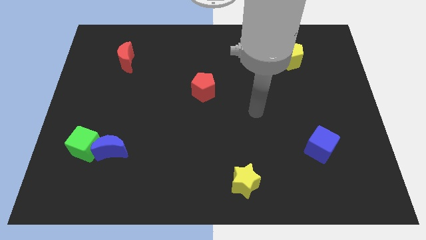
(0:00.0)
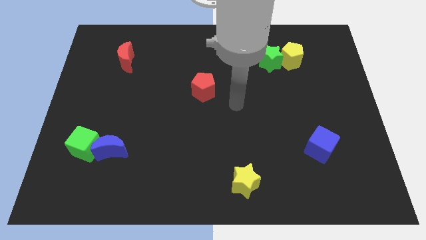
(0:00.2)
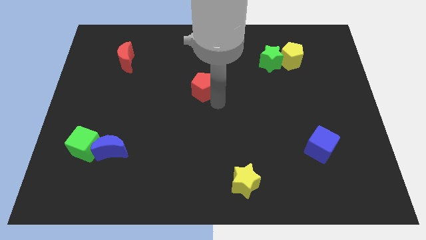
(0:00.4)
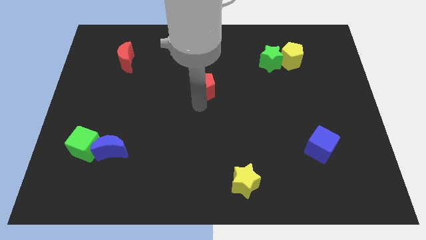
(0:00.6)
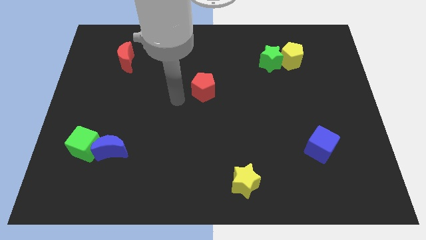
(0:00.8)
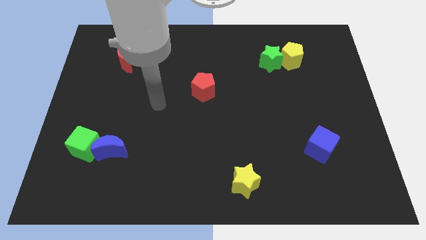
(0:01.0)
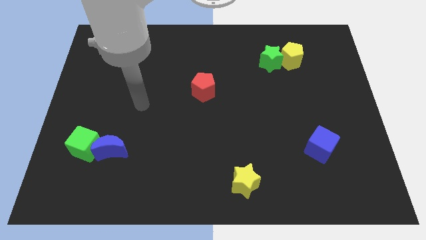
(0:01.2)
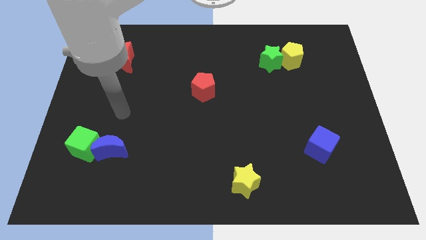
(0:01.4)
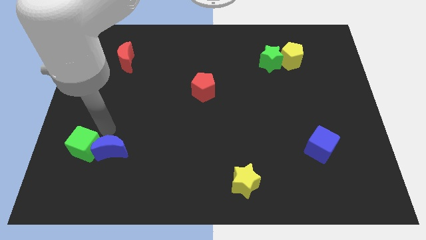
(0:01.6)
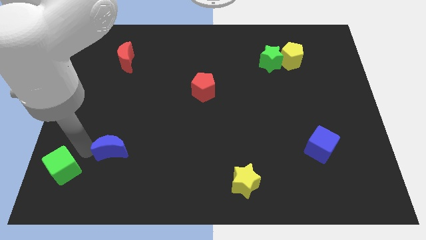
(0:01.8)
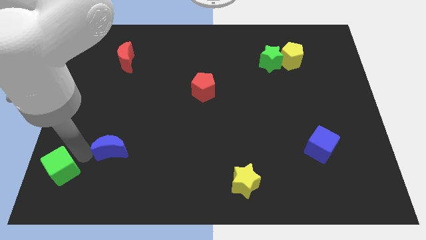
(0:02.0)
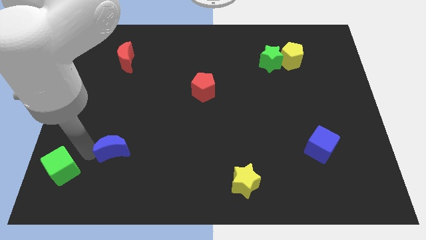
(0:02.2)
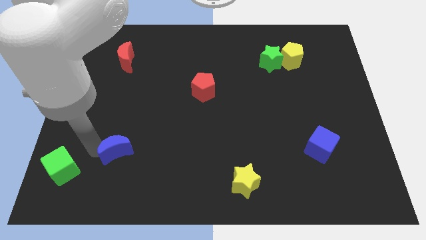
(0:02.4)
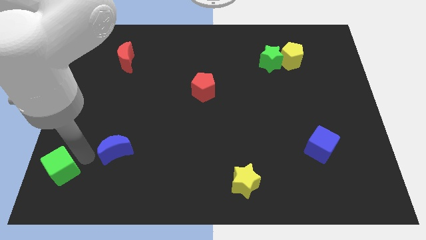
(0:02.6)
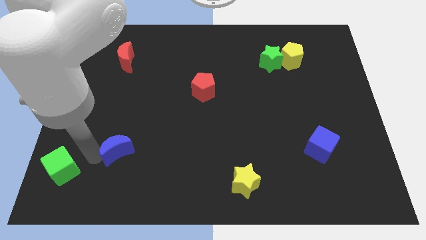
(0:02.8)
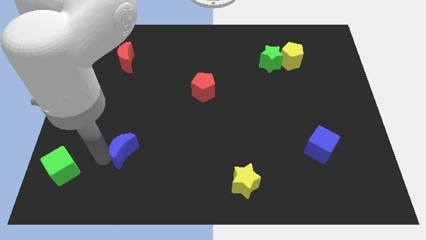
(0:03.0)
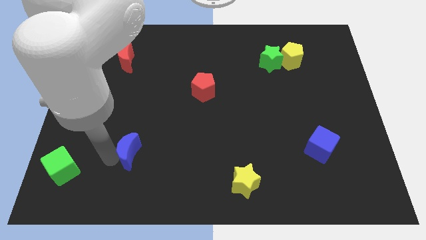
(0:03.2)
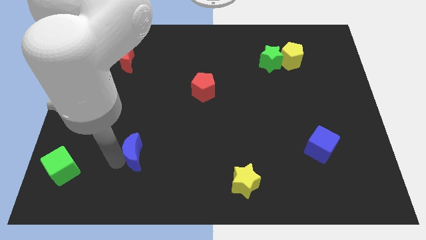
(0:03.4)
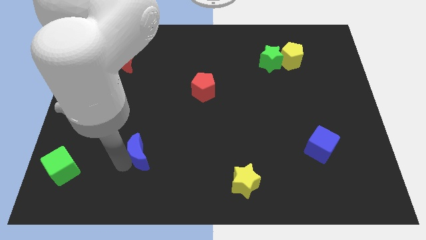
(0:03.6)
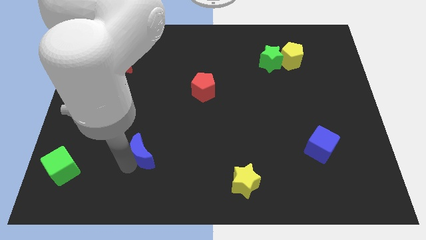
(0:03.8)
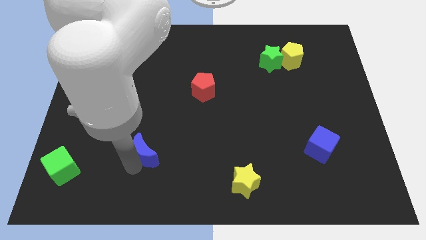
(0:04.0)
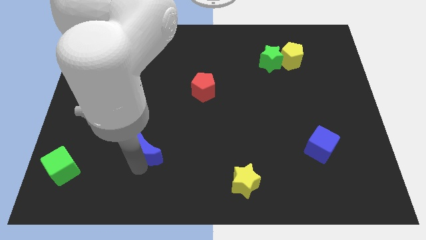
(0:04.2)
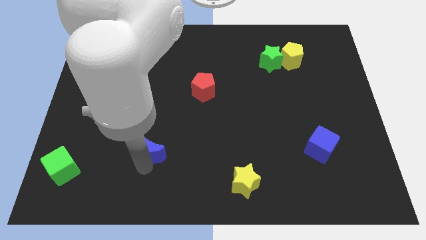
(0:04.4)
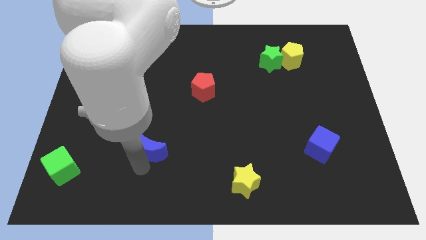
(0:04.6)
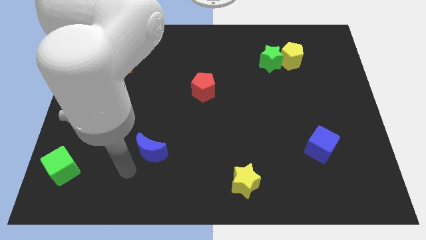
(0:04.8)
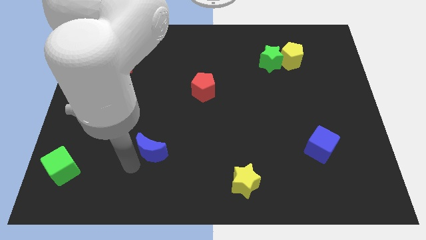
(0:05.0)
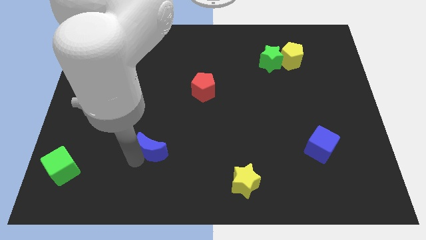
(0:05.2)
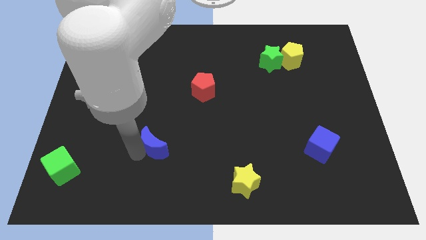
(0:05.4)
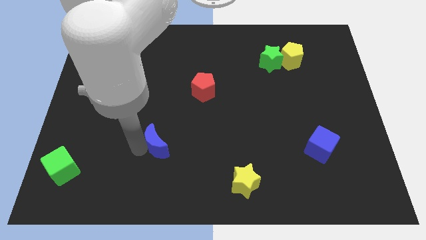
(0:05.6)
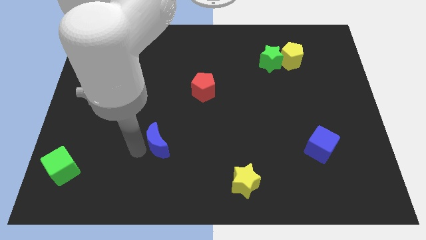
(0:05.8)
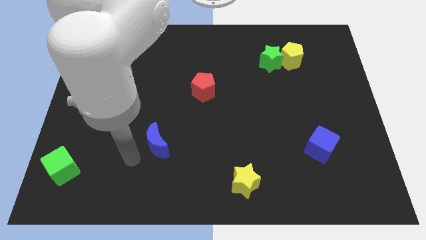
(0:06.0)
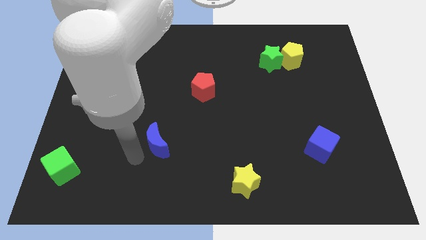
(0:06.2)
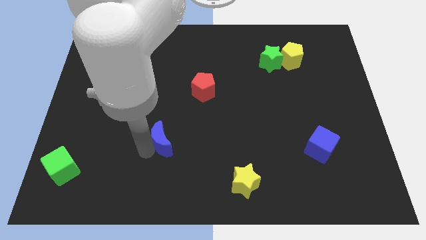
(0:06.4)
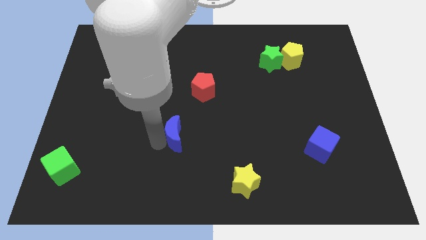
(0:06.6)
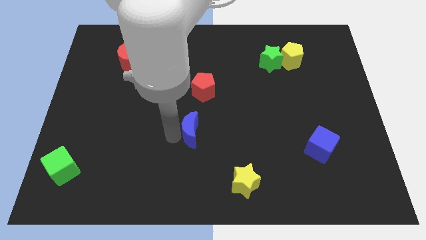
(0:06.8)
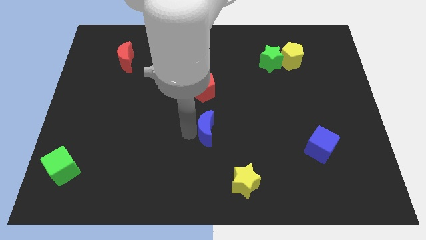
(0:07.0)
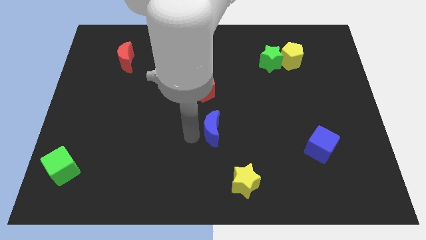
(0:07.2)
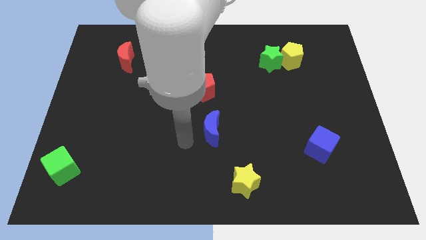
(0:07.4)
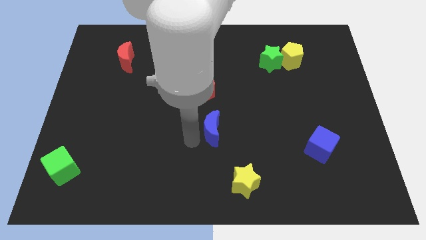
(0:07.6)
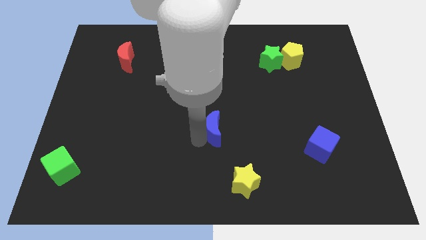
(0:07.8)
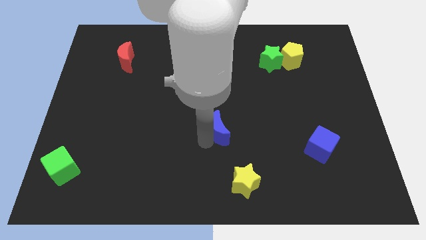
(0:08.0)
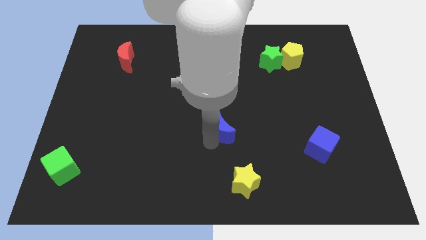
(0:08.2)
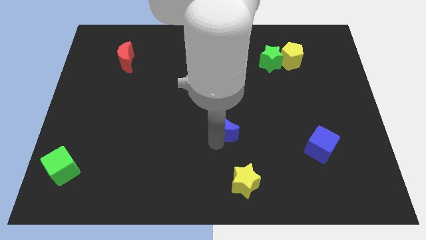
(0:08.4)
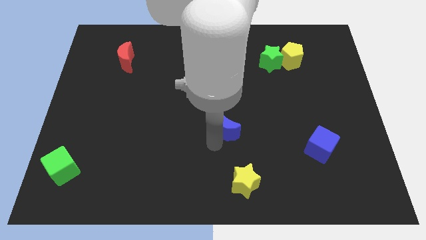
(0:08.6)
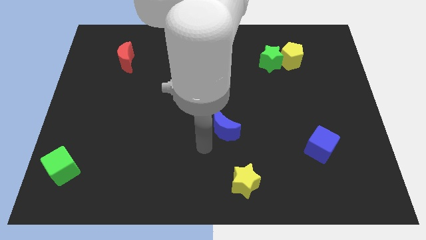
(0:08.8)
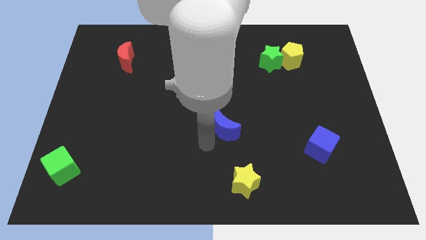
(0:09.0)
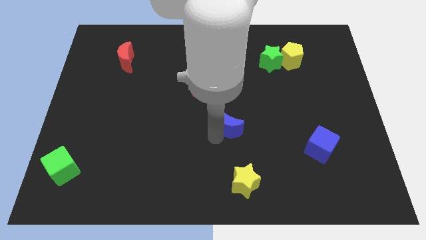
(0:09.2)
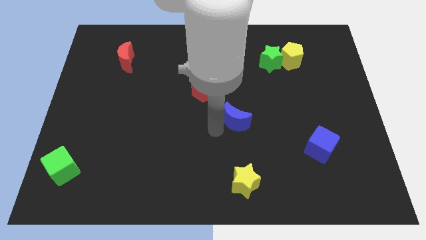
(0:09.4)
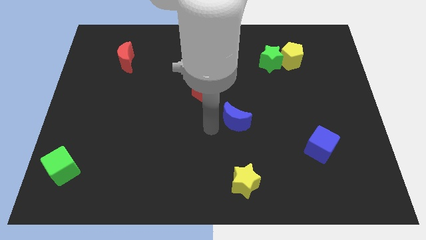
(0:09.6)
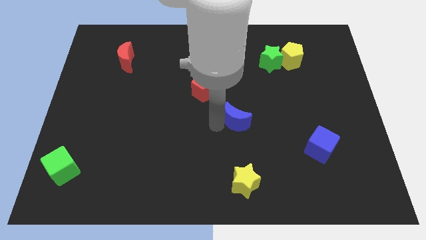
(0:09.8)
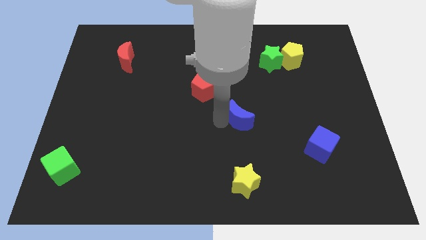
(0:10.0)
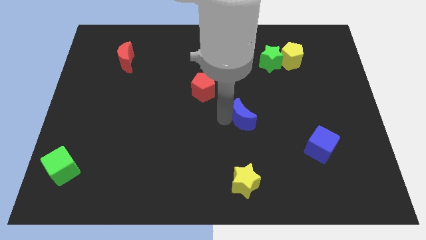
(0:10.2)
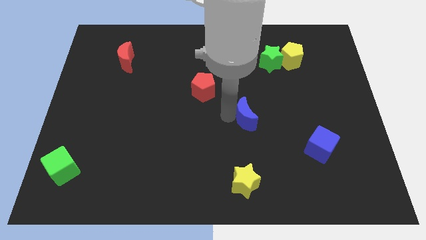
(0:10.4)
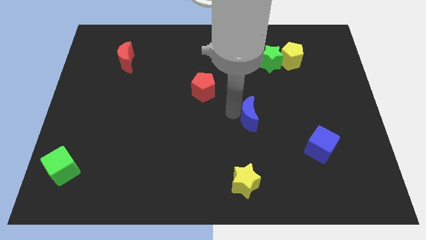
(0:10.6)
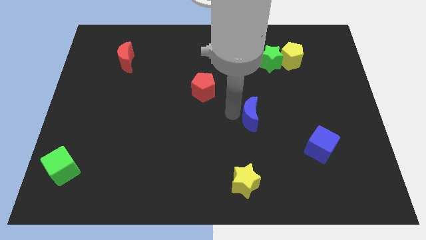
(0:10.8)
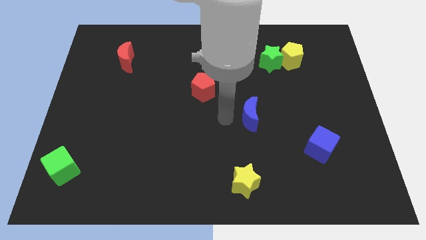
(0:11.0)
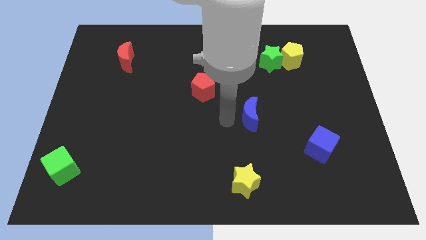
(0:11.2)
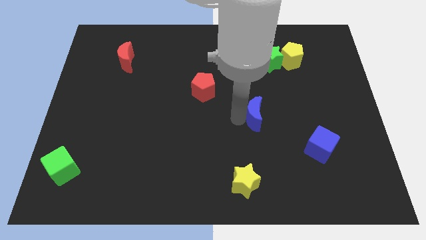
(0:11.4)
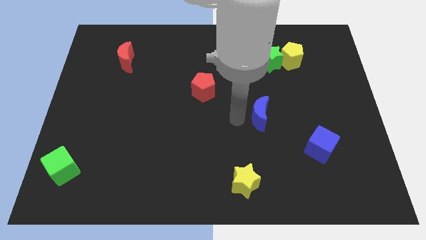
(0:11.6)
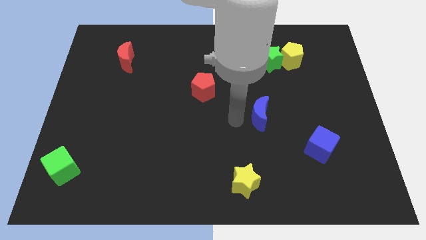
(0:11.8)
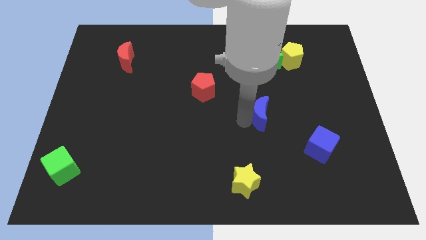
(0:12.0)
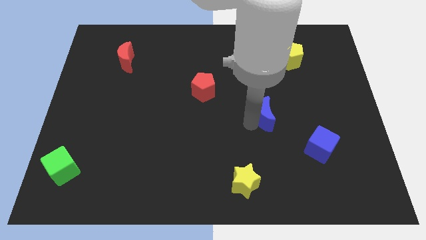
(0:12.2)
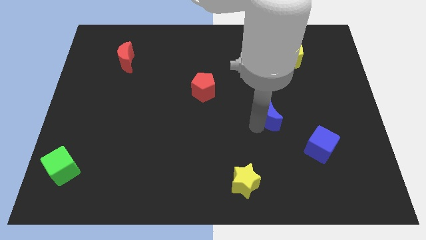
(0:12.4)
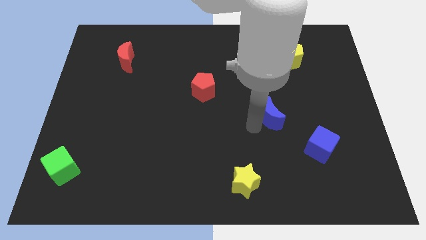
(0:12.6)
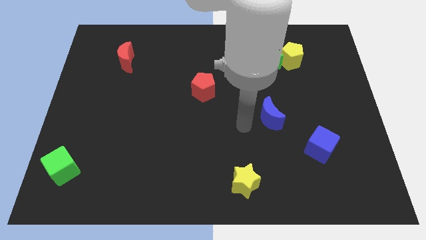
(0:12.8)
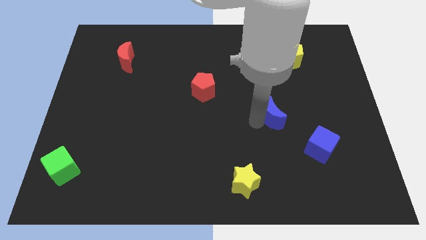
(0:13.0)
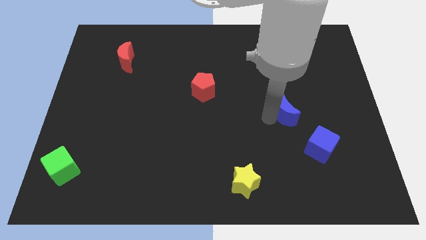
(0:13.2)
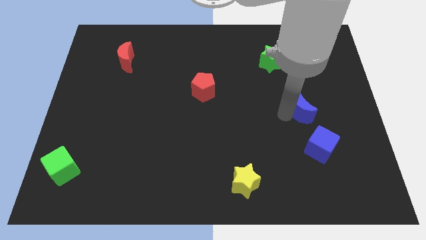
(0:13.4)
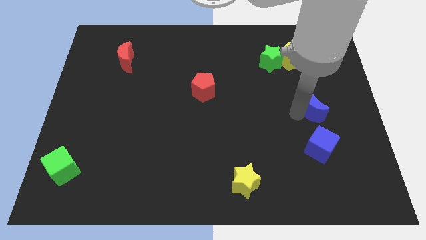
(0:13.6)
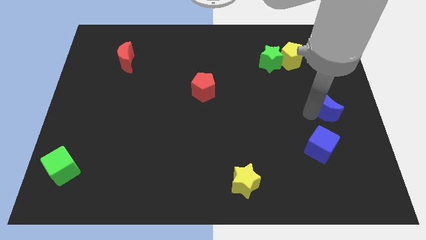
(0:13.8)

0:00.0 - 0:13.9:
put the blue moon to the center right

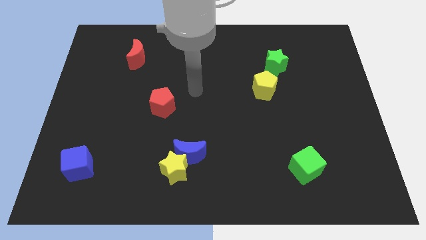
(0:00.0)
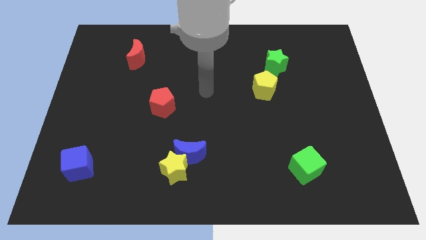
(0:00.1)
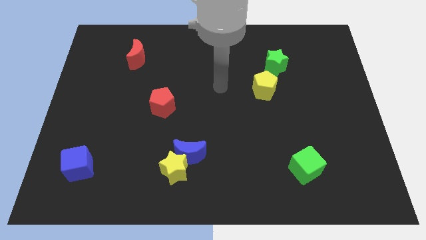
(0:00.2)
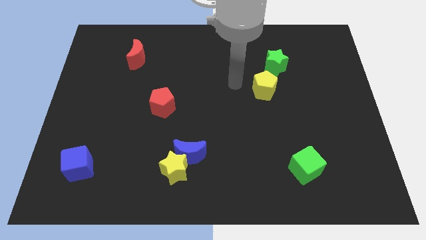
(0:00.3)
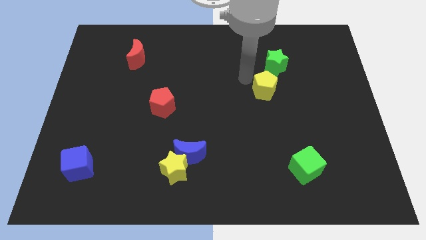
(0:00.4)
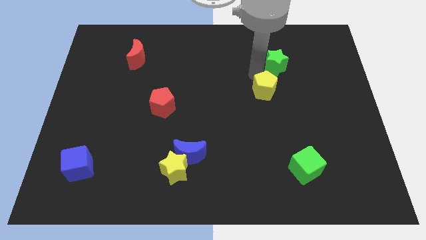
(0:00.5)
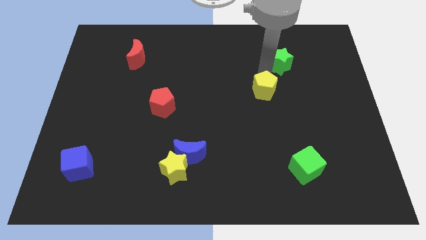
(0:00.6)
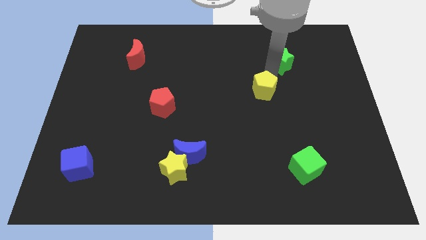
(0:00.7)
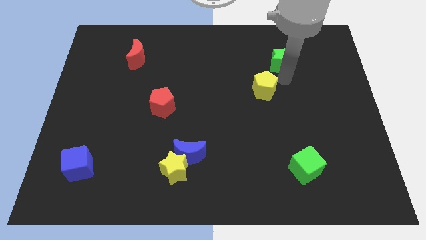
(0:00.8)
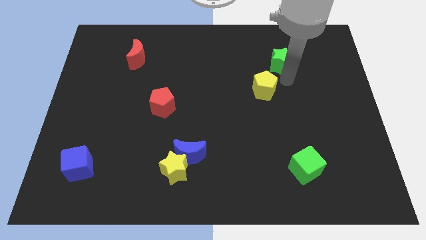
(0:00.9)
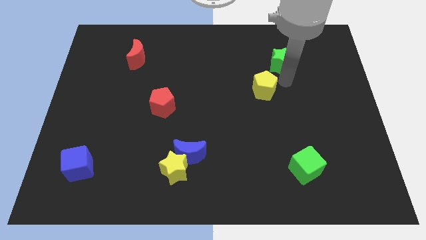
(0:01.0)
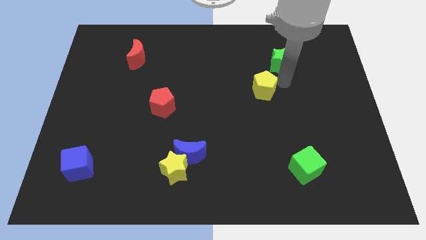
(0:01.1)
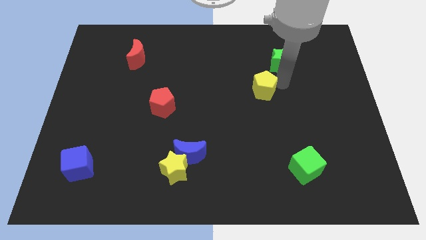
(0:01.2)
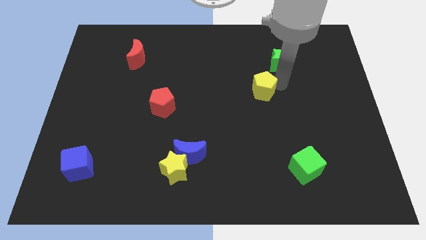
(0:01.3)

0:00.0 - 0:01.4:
move the yellow pentagon to the center of the board
